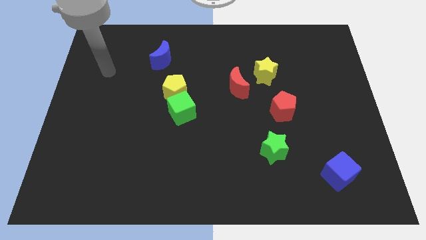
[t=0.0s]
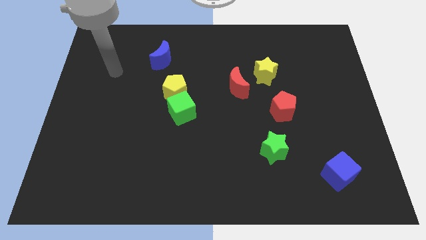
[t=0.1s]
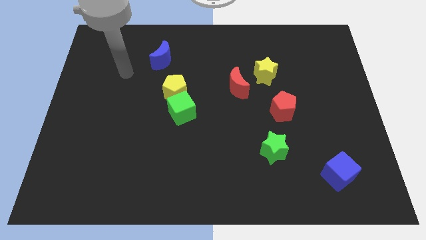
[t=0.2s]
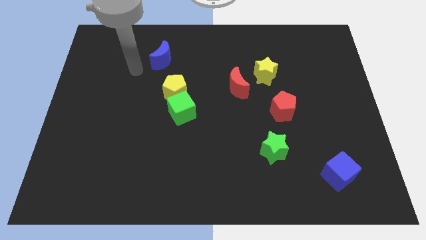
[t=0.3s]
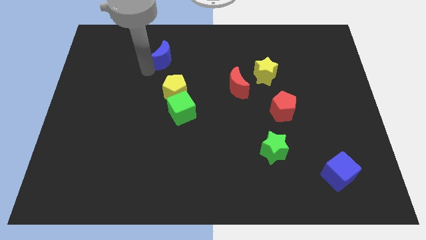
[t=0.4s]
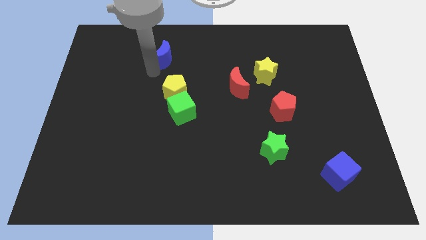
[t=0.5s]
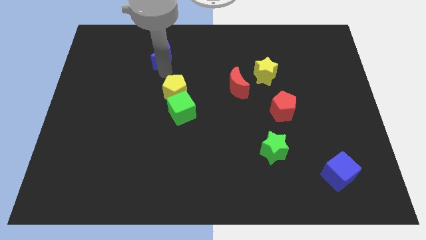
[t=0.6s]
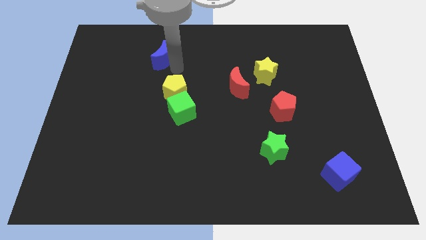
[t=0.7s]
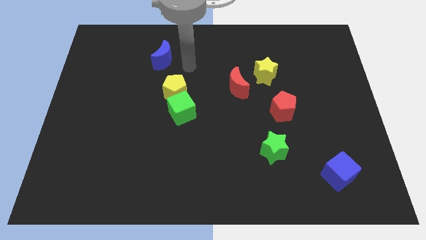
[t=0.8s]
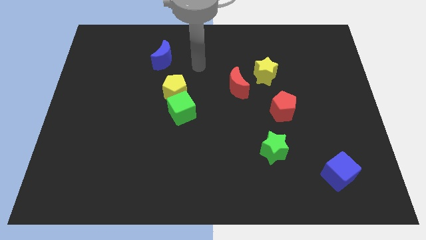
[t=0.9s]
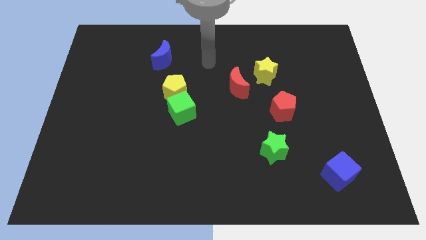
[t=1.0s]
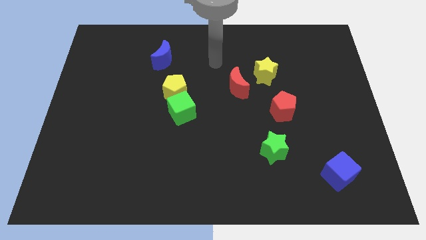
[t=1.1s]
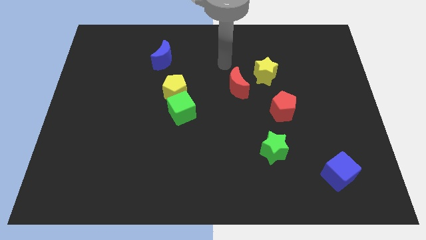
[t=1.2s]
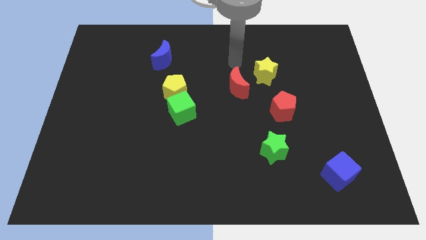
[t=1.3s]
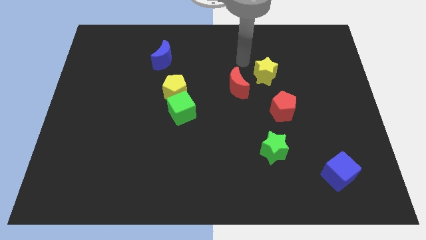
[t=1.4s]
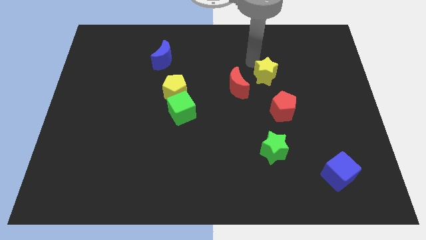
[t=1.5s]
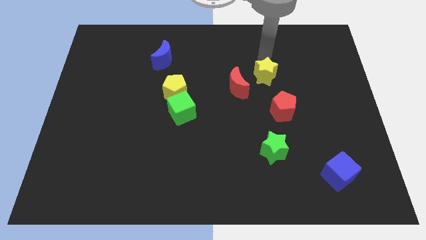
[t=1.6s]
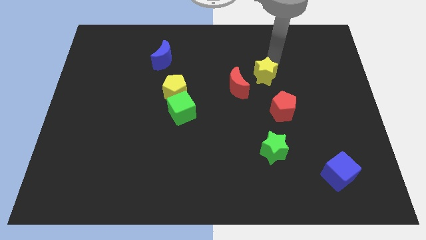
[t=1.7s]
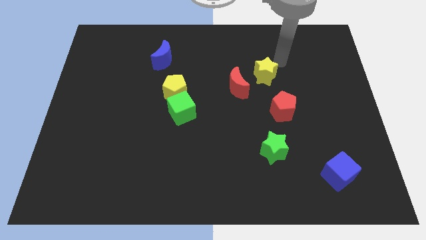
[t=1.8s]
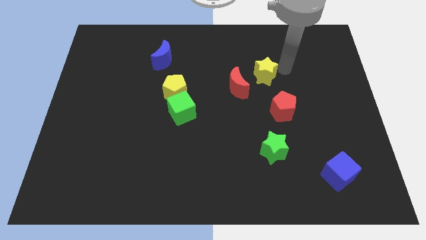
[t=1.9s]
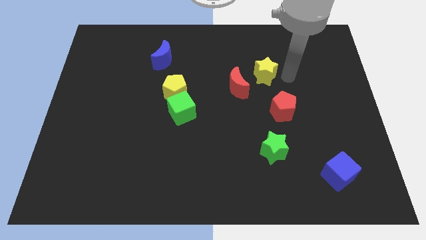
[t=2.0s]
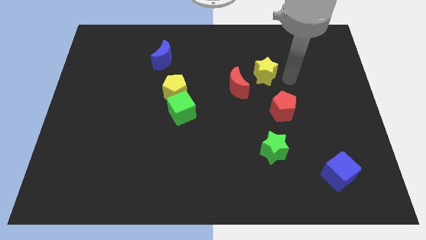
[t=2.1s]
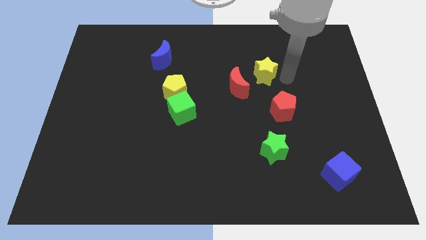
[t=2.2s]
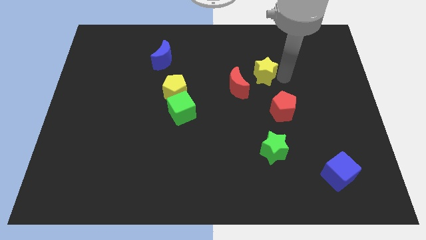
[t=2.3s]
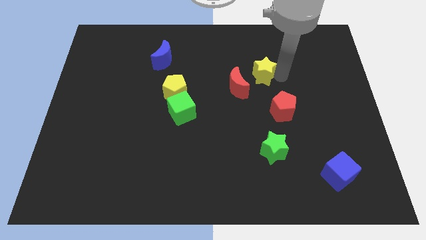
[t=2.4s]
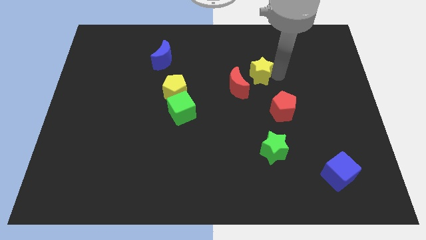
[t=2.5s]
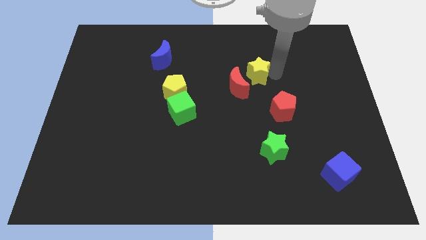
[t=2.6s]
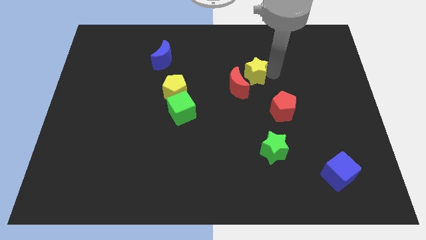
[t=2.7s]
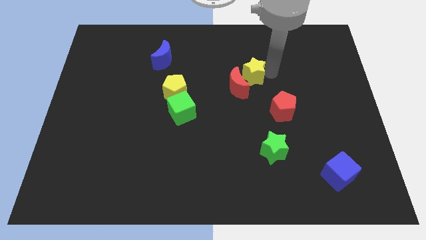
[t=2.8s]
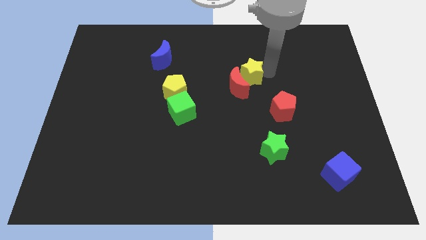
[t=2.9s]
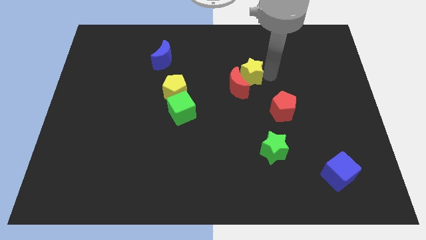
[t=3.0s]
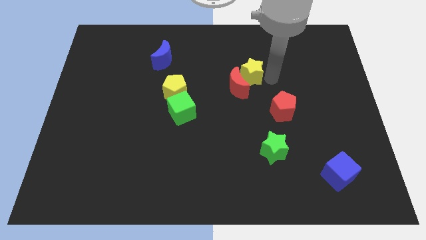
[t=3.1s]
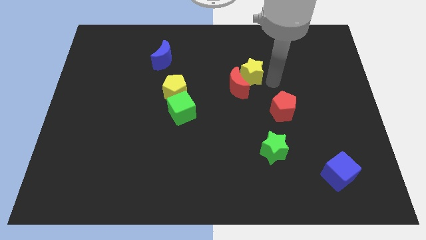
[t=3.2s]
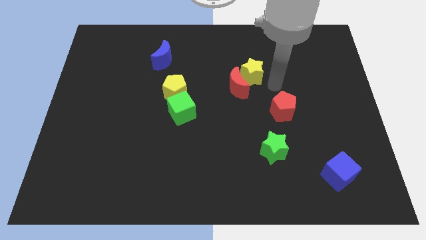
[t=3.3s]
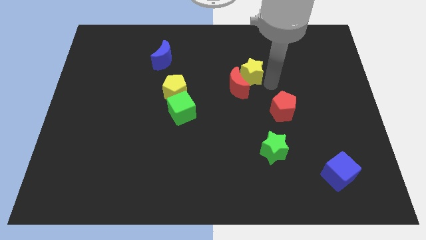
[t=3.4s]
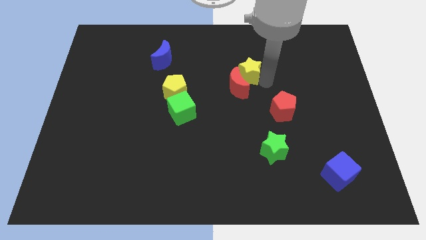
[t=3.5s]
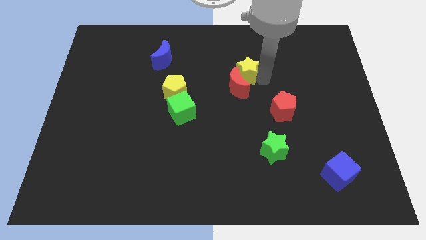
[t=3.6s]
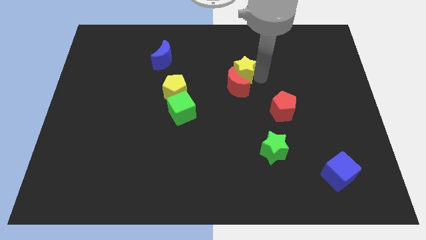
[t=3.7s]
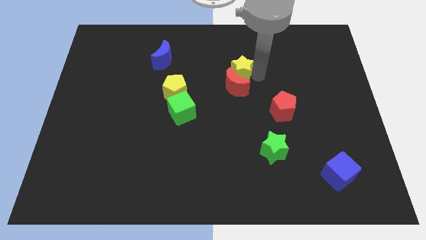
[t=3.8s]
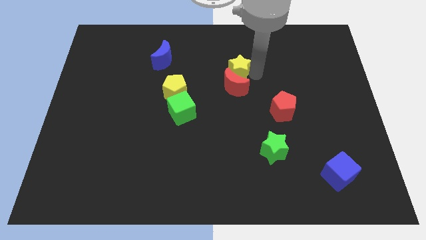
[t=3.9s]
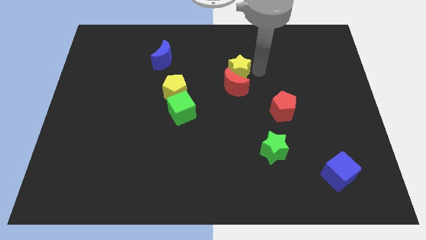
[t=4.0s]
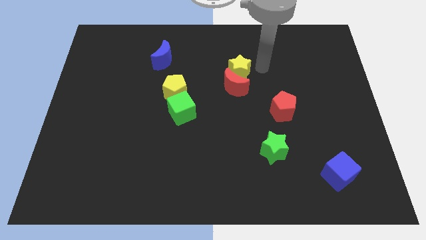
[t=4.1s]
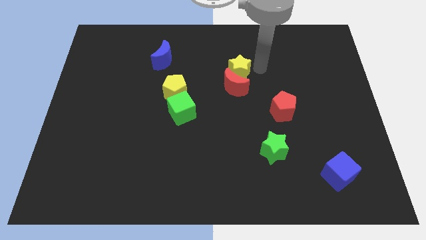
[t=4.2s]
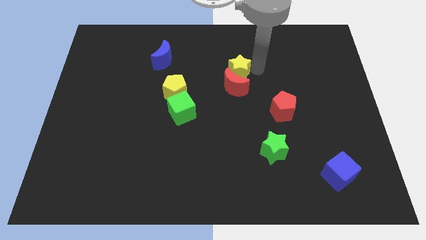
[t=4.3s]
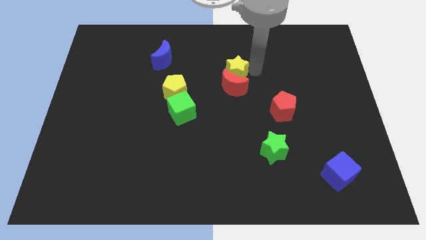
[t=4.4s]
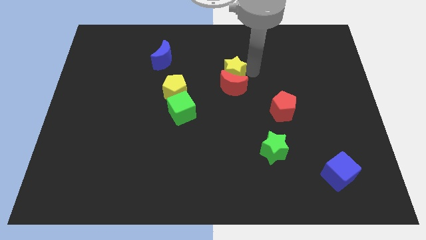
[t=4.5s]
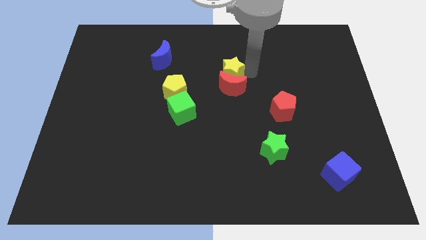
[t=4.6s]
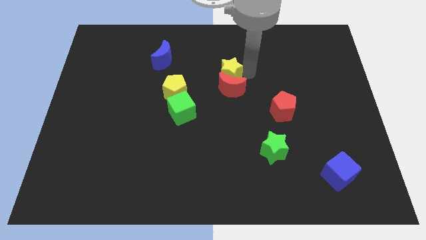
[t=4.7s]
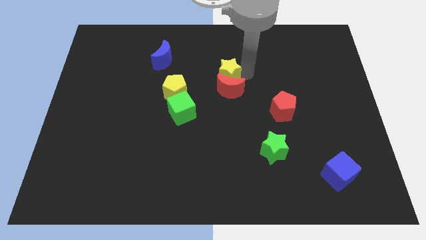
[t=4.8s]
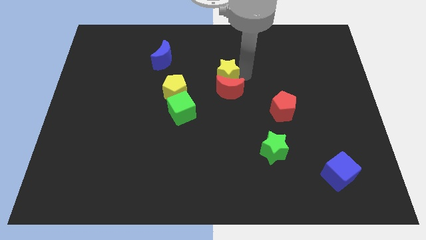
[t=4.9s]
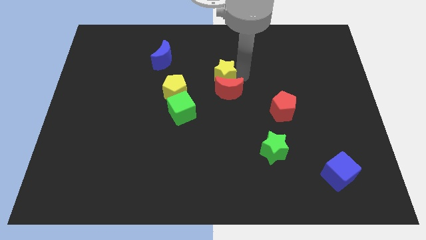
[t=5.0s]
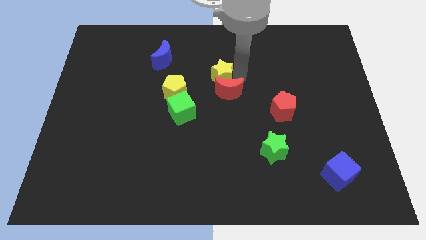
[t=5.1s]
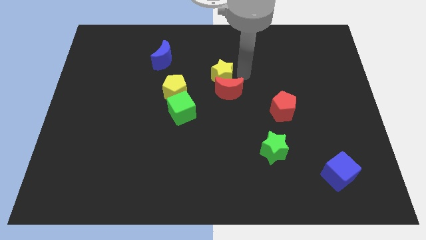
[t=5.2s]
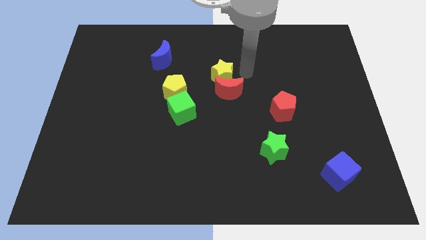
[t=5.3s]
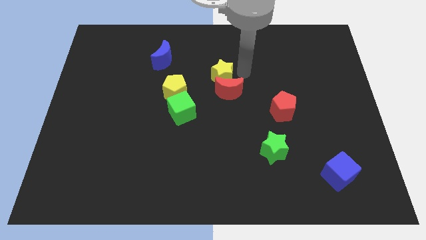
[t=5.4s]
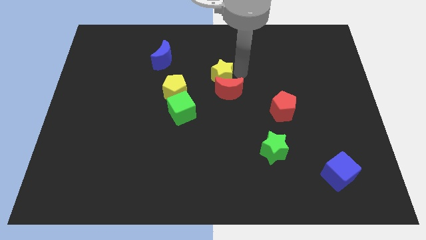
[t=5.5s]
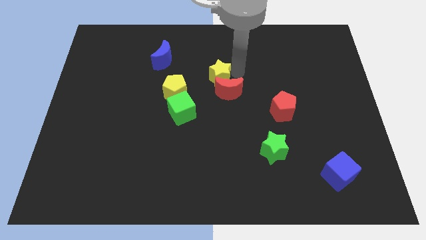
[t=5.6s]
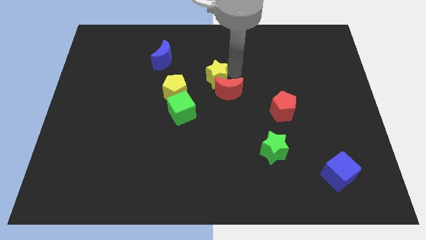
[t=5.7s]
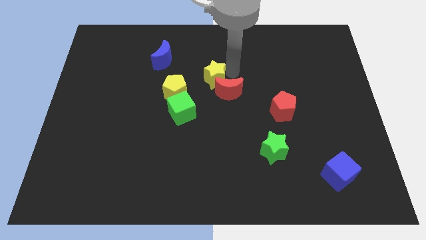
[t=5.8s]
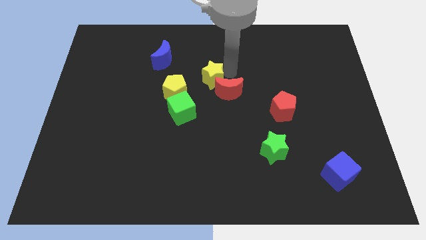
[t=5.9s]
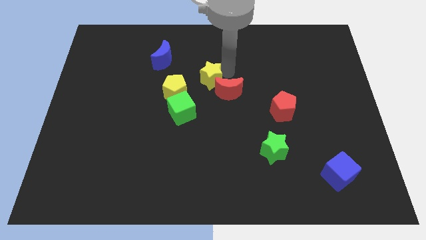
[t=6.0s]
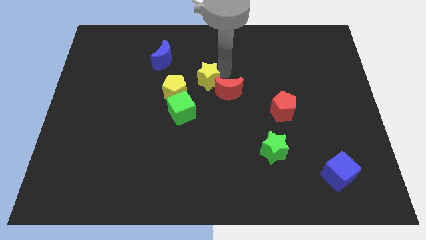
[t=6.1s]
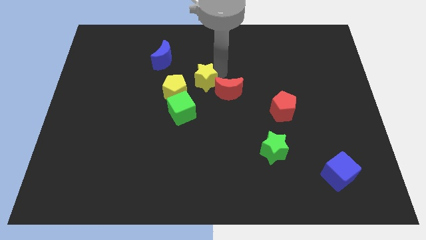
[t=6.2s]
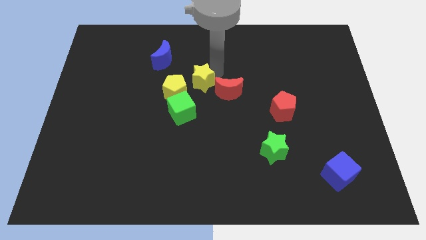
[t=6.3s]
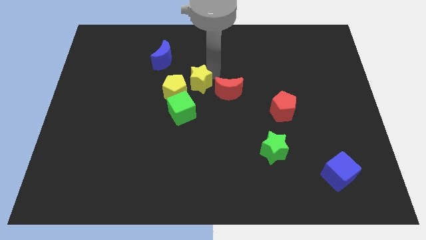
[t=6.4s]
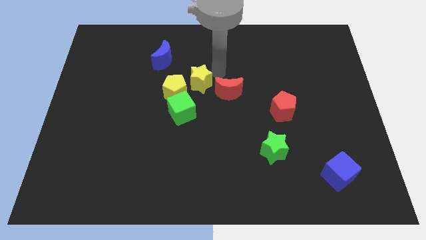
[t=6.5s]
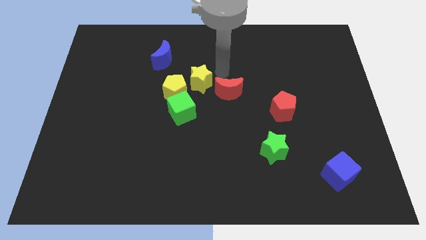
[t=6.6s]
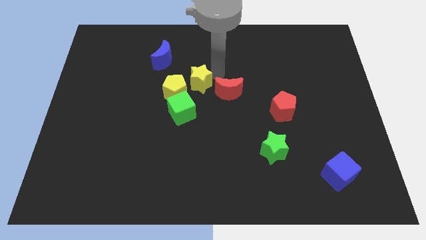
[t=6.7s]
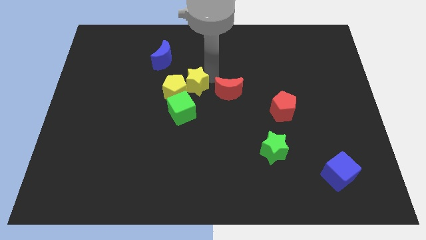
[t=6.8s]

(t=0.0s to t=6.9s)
put the yellow star towards the yellow pentagon

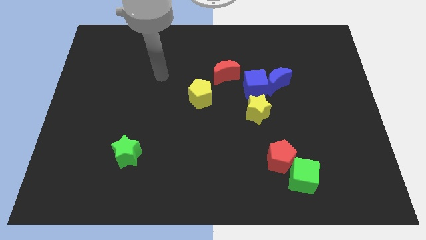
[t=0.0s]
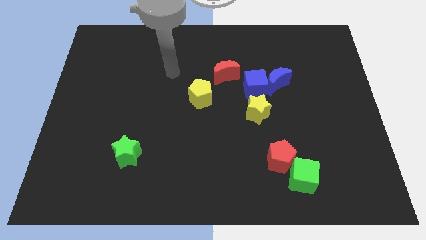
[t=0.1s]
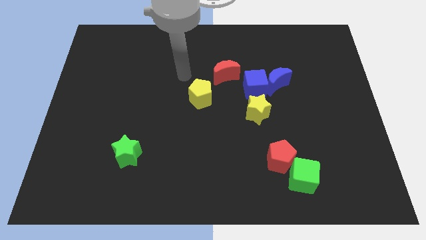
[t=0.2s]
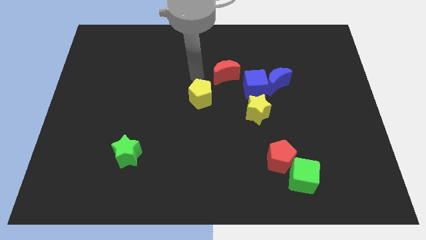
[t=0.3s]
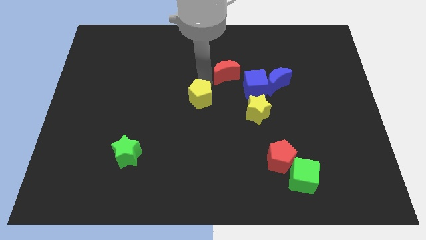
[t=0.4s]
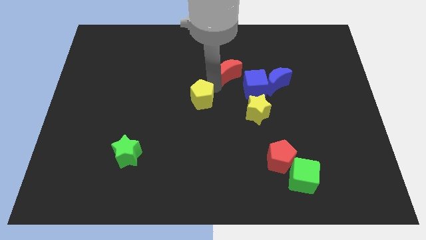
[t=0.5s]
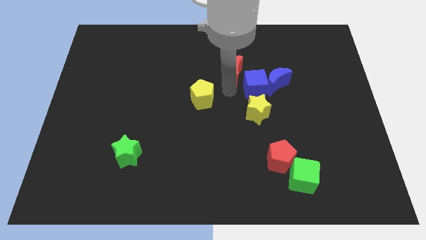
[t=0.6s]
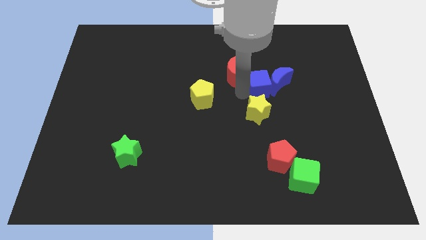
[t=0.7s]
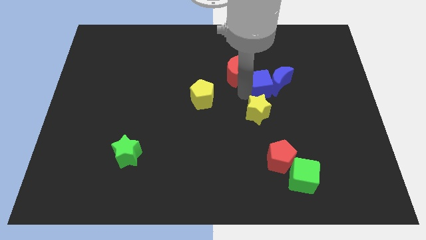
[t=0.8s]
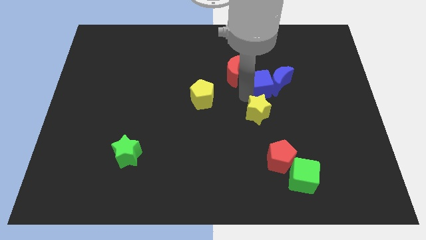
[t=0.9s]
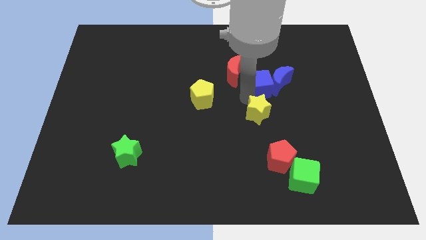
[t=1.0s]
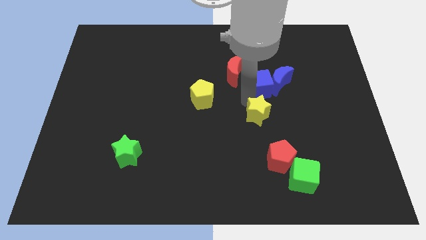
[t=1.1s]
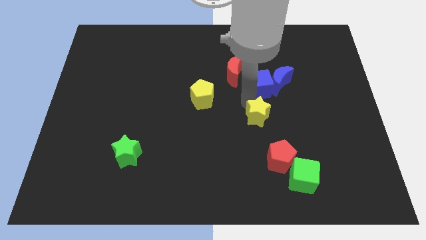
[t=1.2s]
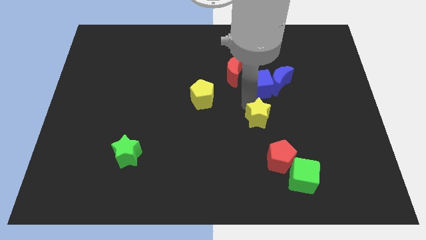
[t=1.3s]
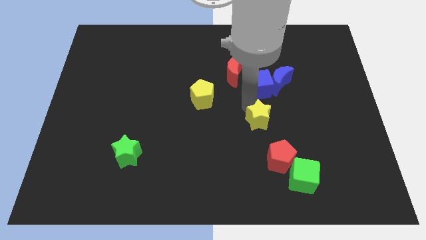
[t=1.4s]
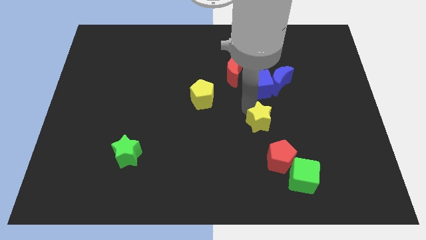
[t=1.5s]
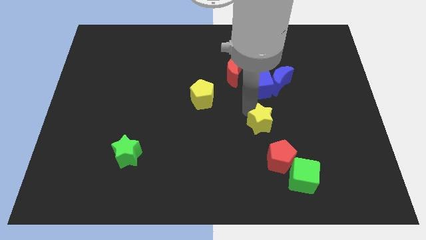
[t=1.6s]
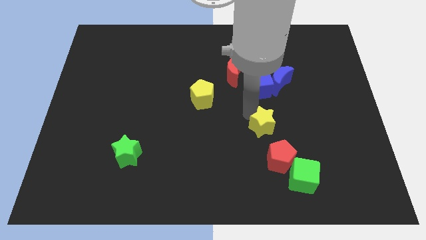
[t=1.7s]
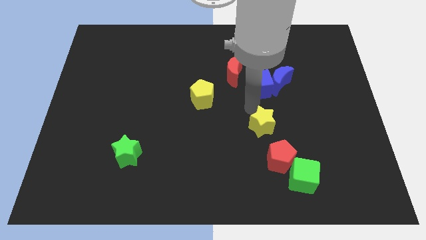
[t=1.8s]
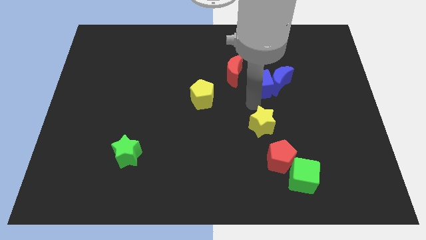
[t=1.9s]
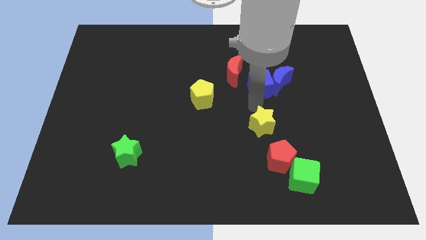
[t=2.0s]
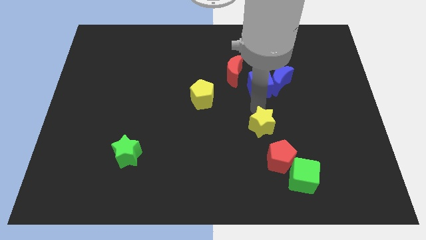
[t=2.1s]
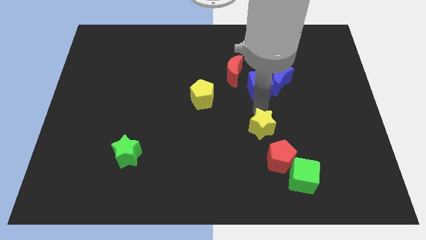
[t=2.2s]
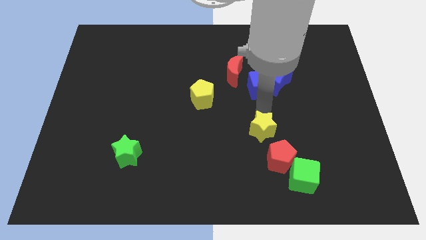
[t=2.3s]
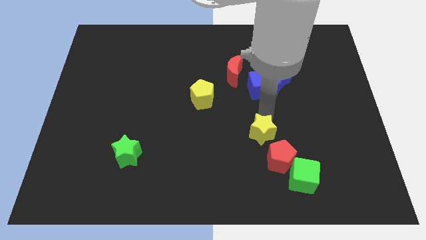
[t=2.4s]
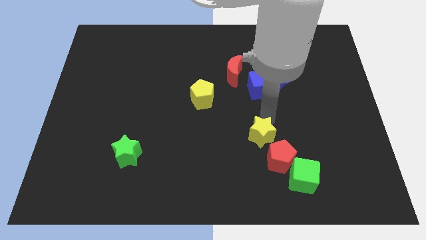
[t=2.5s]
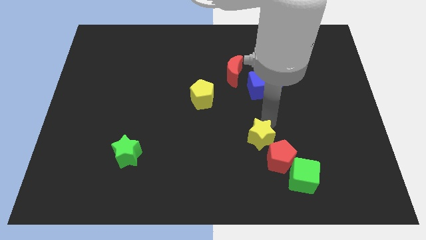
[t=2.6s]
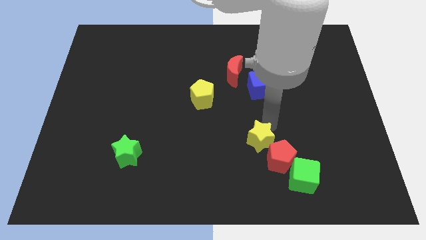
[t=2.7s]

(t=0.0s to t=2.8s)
put the yellow star next to the red pentagon
